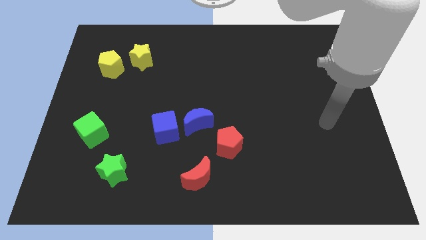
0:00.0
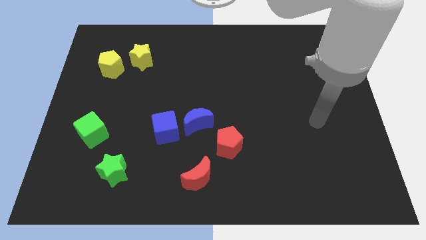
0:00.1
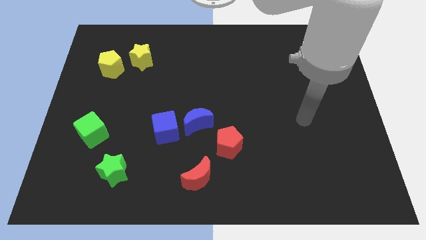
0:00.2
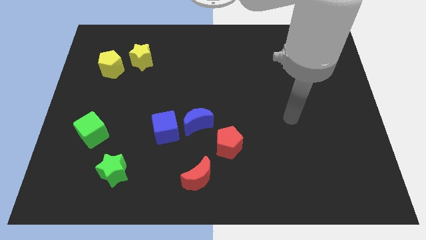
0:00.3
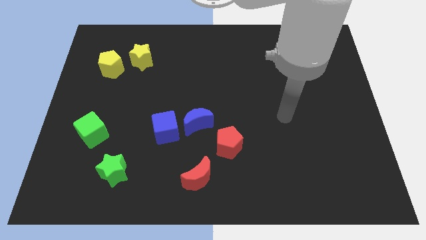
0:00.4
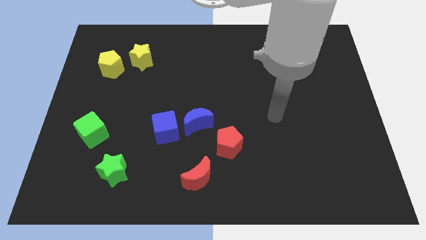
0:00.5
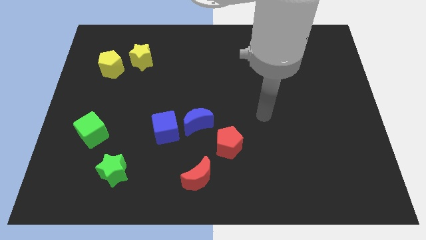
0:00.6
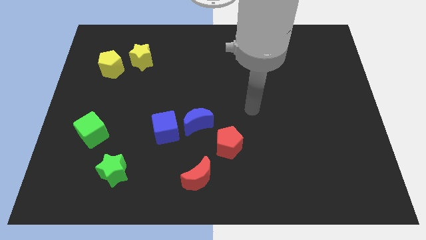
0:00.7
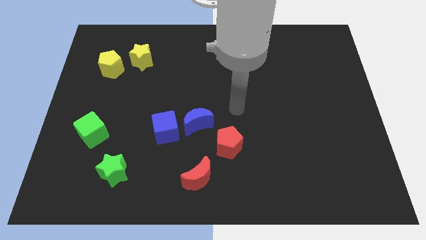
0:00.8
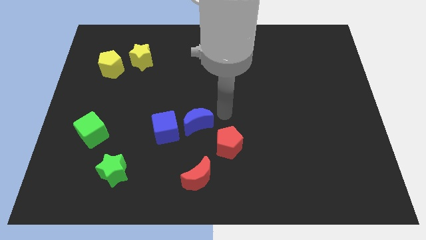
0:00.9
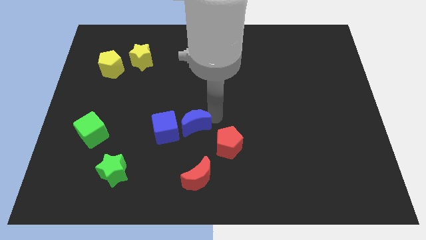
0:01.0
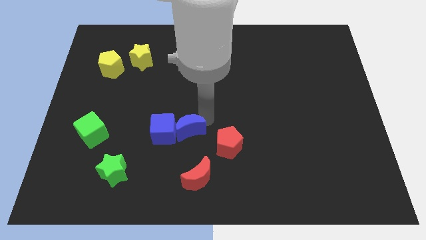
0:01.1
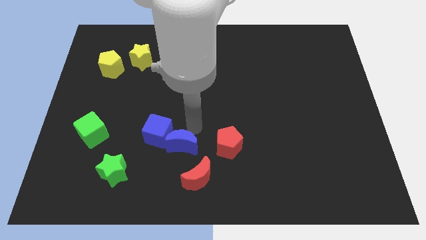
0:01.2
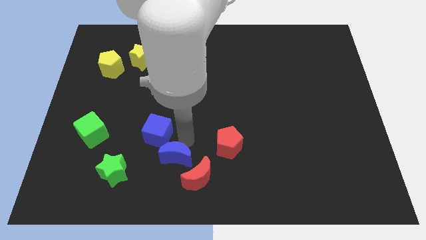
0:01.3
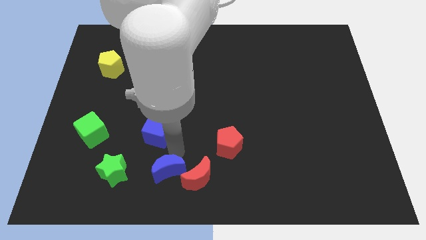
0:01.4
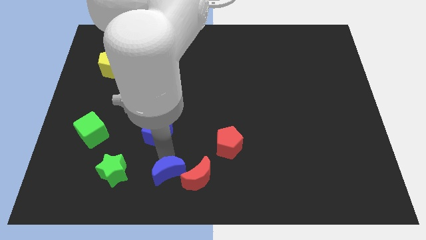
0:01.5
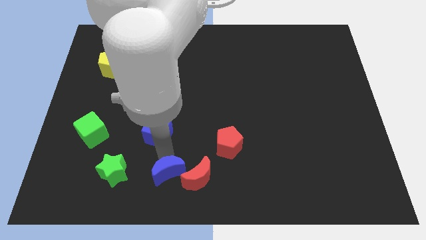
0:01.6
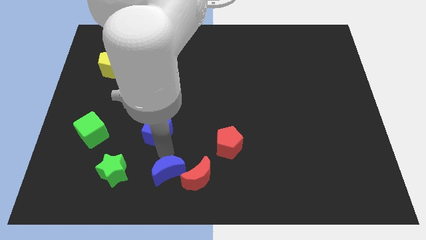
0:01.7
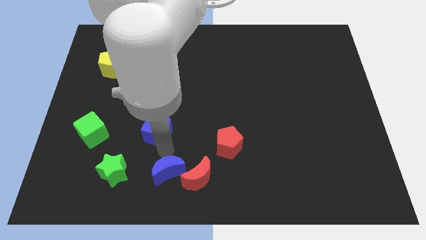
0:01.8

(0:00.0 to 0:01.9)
move the blue cube away from the blue moon

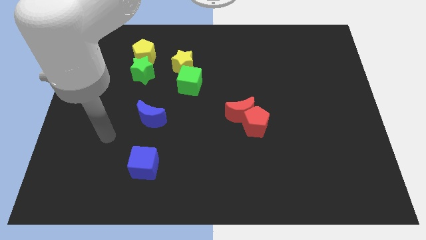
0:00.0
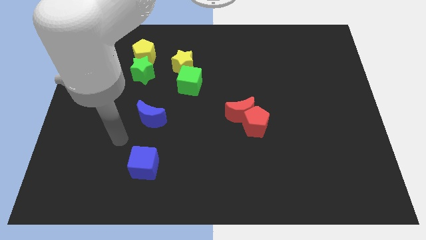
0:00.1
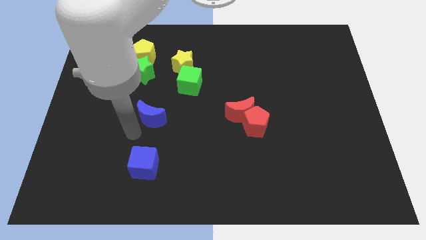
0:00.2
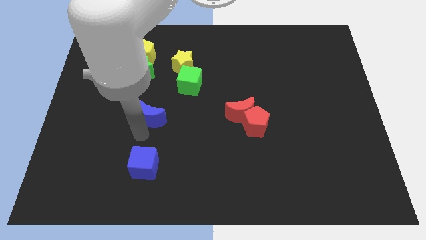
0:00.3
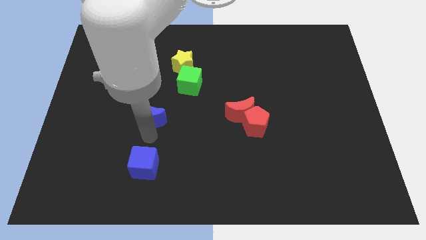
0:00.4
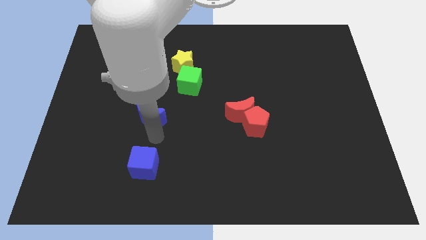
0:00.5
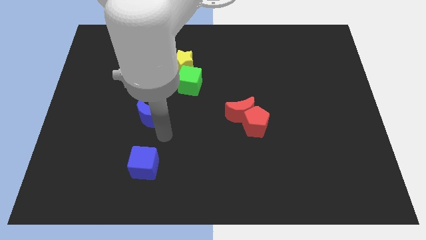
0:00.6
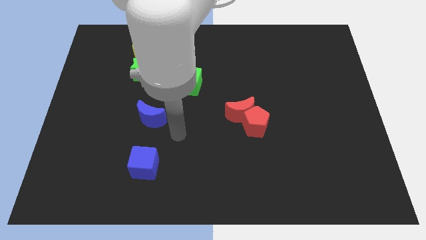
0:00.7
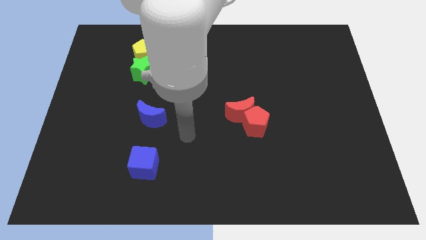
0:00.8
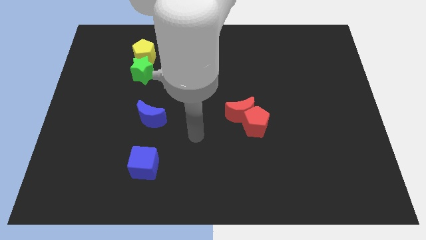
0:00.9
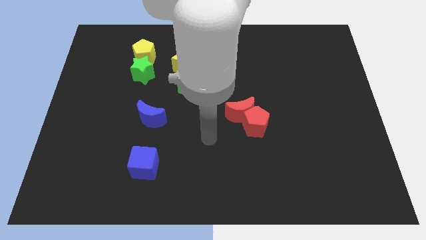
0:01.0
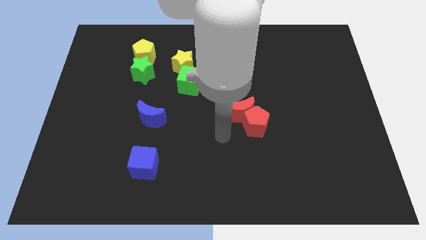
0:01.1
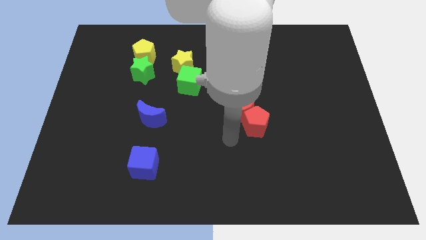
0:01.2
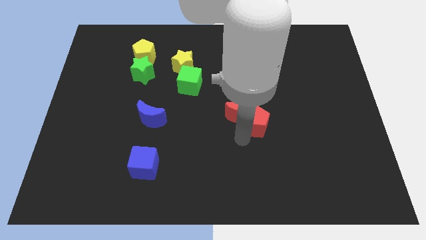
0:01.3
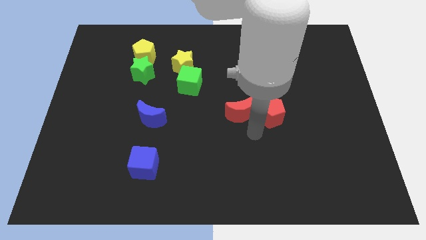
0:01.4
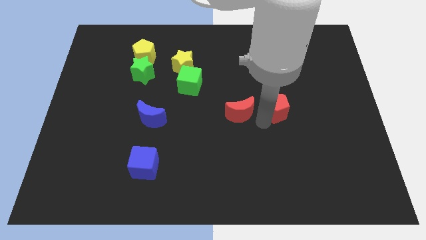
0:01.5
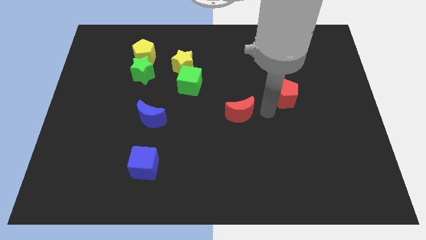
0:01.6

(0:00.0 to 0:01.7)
separate the red moon from the red pentagon

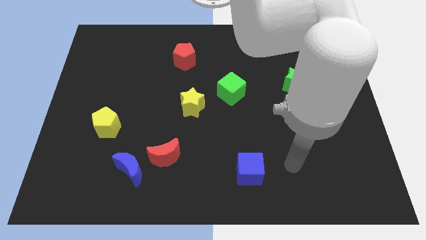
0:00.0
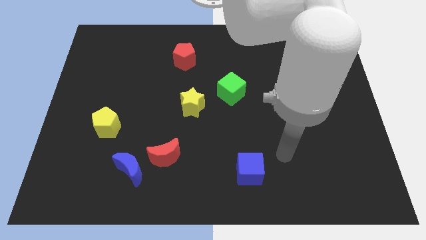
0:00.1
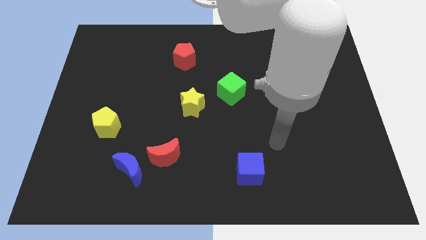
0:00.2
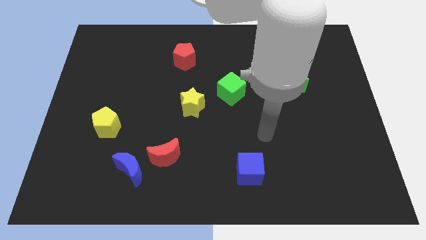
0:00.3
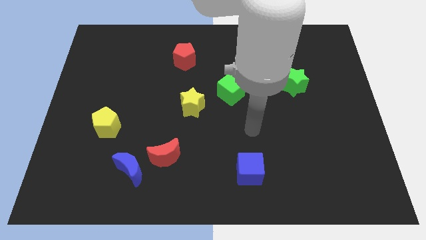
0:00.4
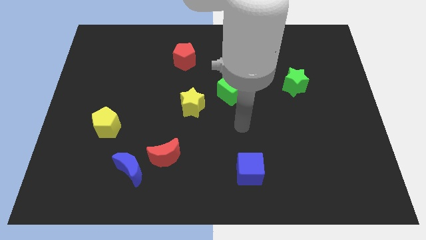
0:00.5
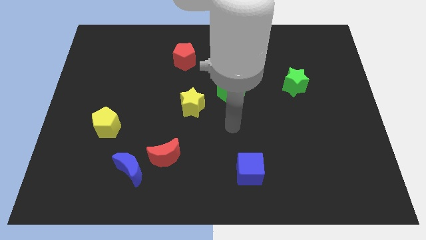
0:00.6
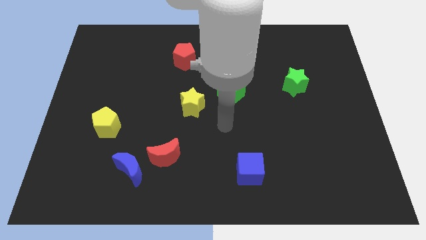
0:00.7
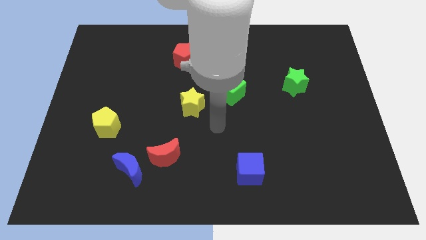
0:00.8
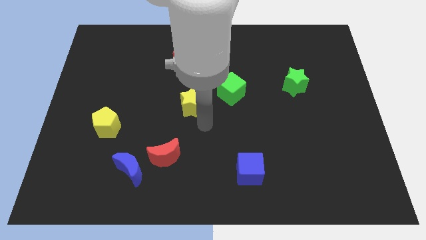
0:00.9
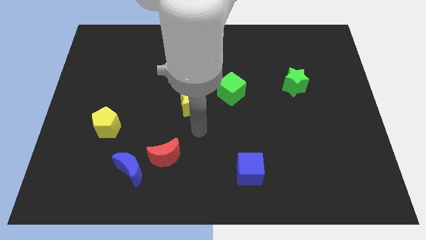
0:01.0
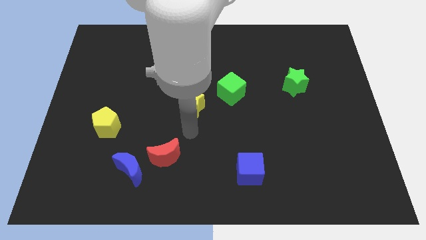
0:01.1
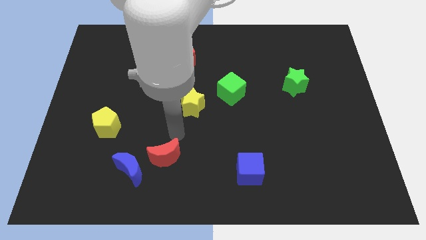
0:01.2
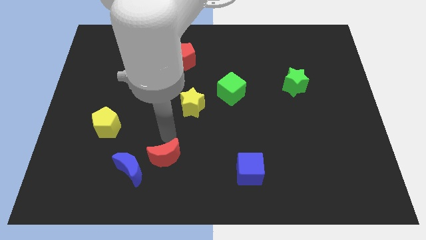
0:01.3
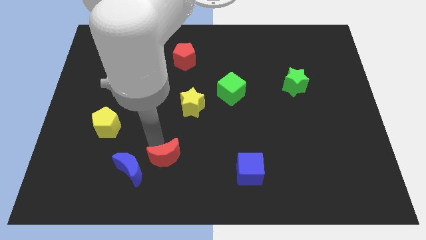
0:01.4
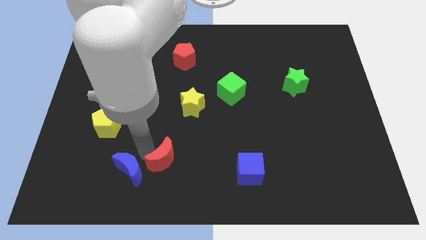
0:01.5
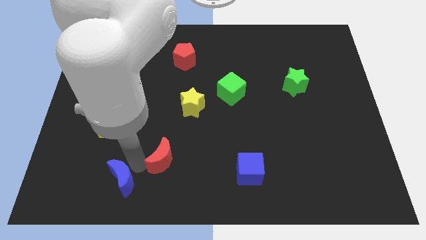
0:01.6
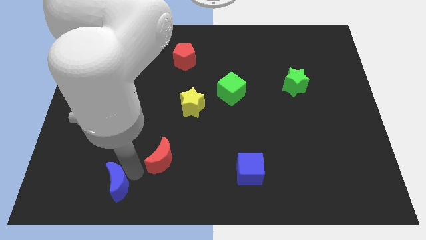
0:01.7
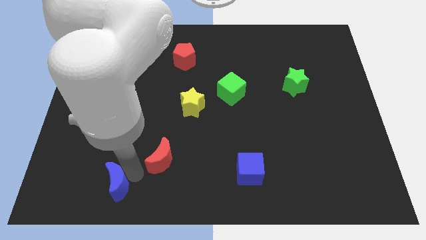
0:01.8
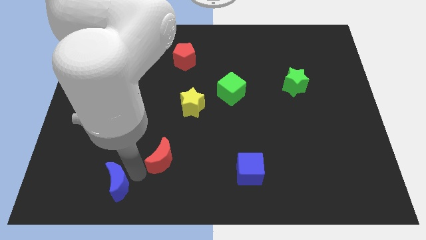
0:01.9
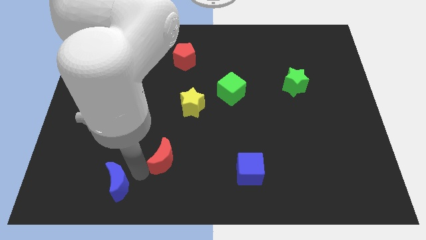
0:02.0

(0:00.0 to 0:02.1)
move the red moon away from the blue moon

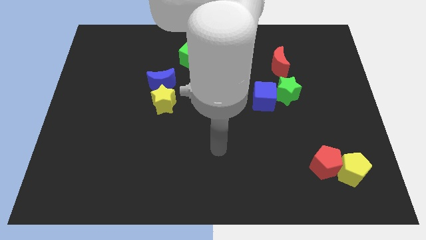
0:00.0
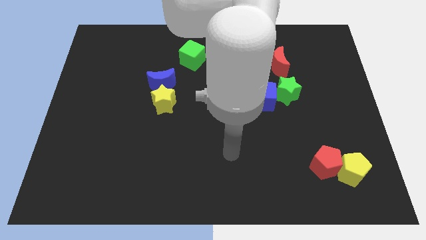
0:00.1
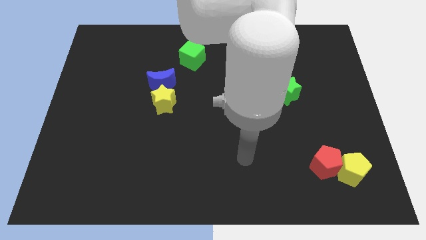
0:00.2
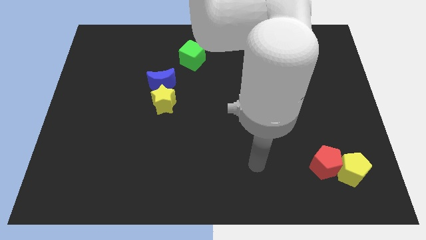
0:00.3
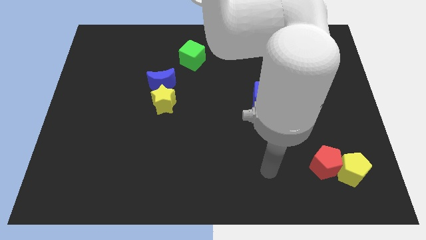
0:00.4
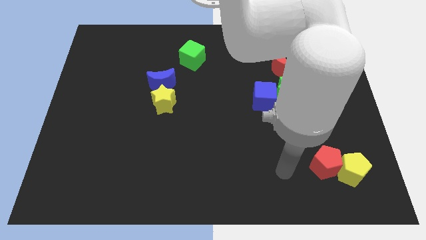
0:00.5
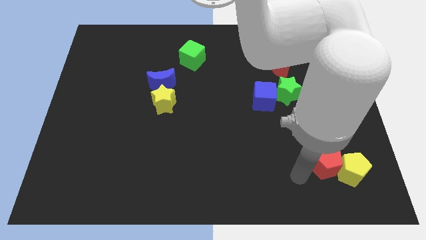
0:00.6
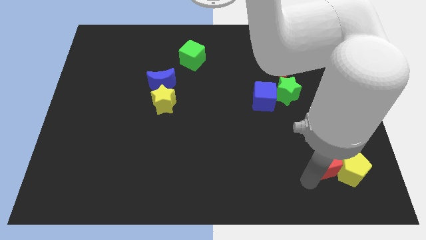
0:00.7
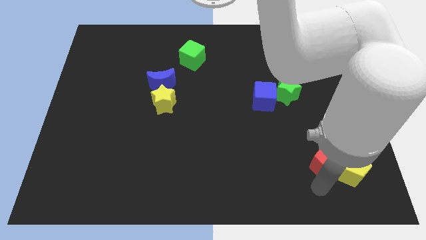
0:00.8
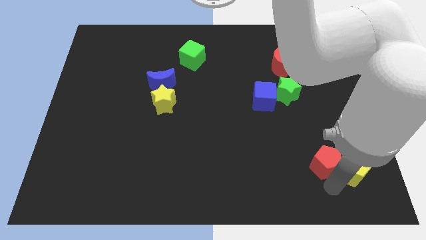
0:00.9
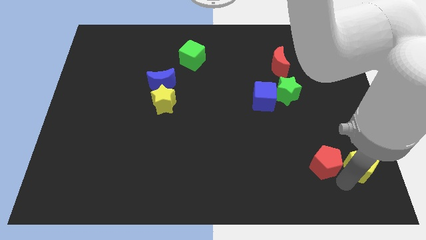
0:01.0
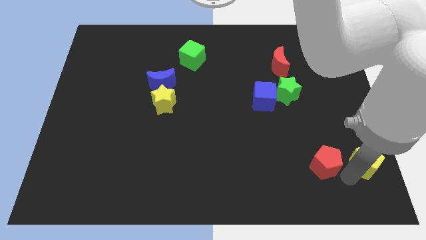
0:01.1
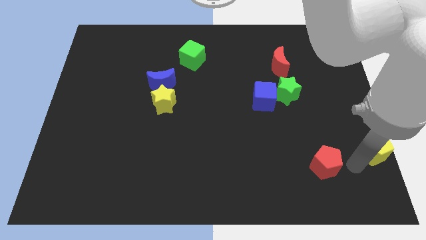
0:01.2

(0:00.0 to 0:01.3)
move the red pentagon away from the yellow pentagon

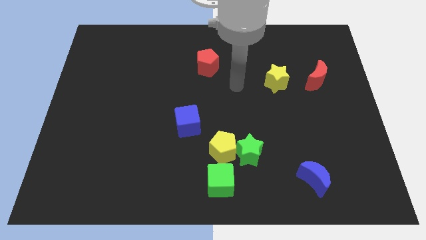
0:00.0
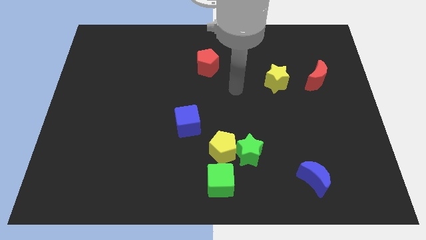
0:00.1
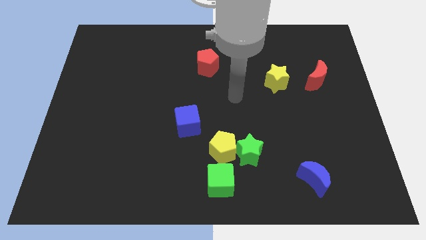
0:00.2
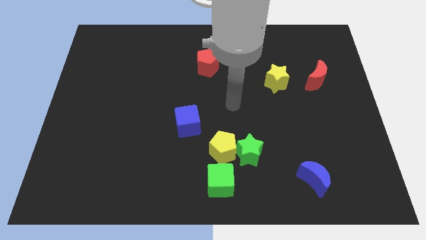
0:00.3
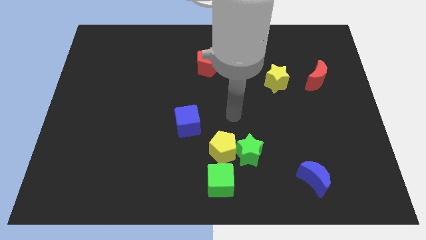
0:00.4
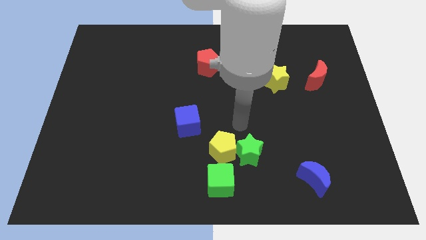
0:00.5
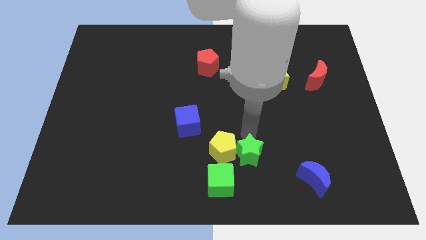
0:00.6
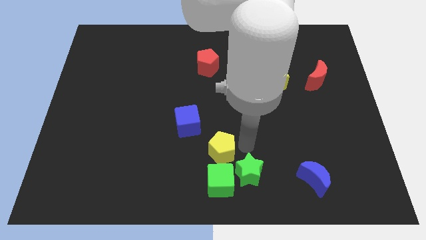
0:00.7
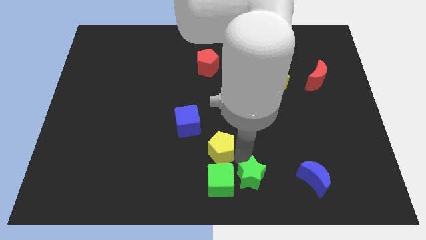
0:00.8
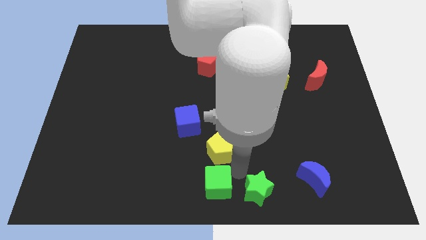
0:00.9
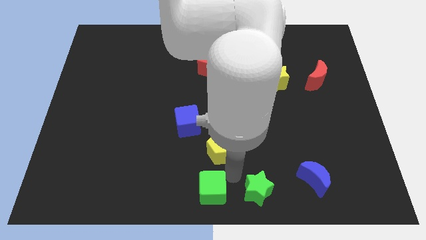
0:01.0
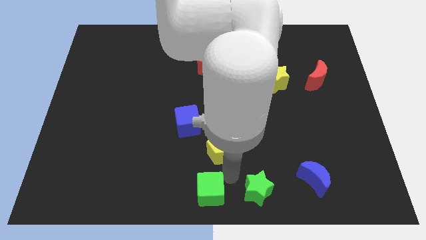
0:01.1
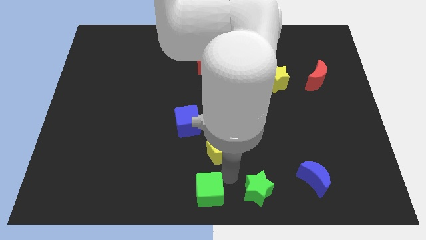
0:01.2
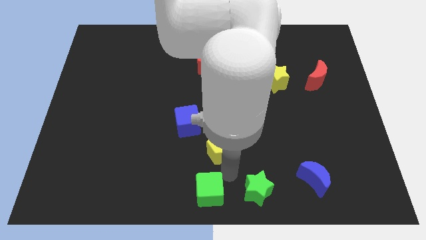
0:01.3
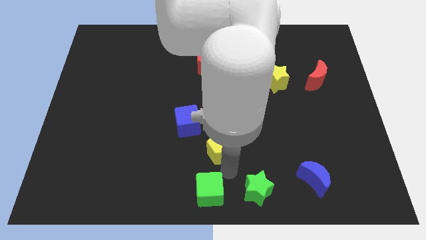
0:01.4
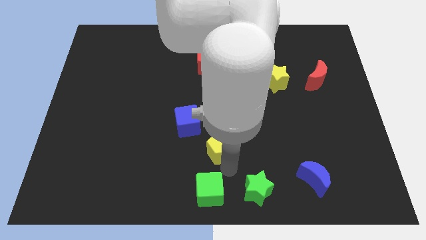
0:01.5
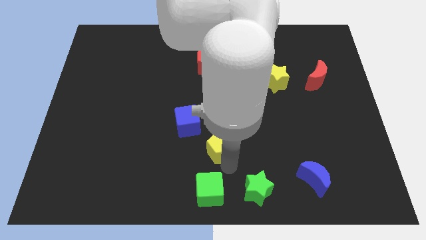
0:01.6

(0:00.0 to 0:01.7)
separate the yellow pentagon from the green star and green cube

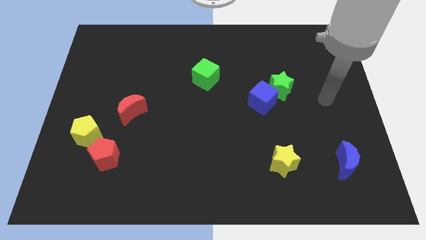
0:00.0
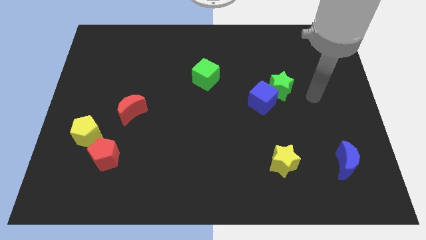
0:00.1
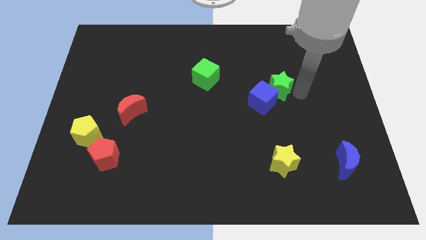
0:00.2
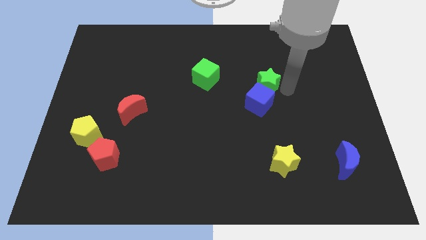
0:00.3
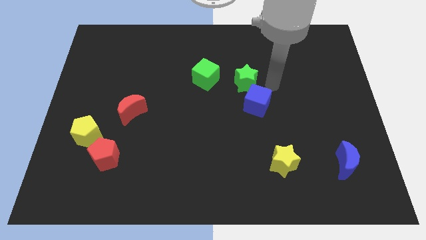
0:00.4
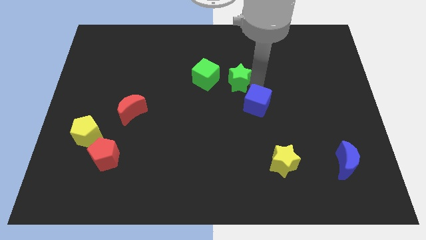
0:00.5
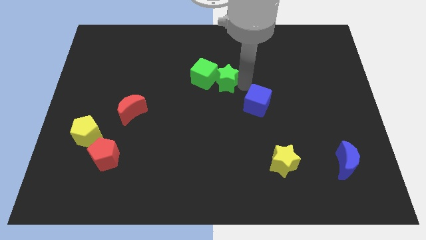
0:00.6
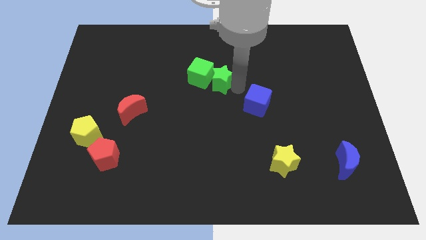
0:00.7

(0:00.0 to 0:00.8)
pull the blue cube apart from the green star
